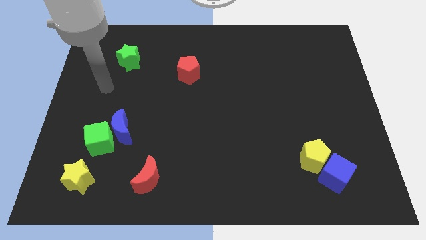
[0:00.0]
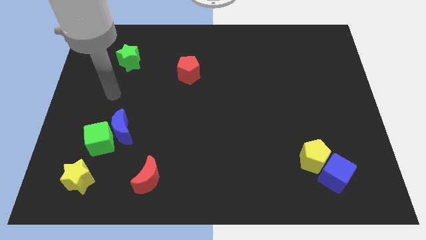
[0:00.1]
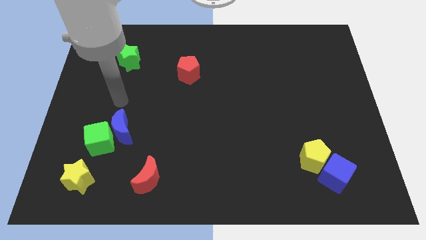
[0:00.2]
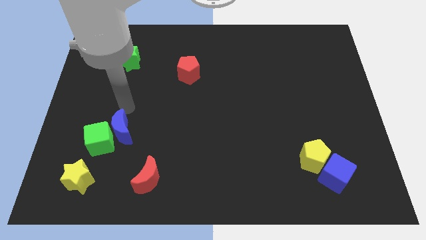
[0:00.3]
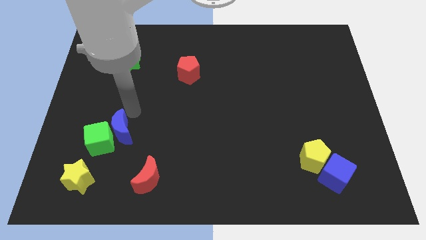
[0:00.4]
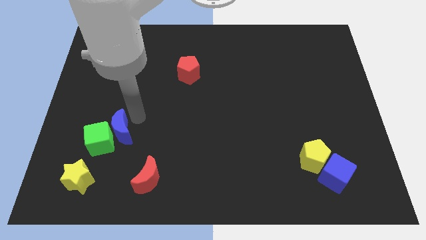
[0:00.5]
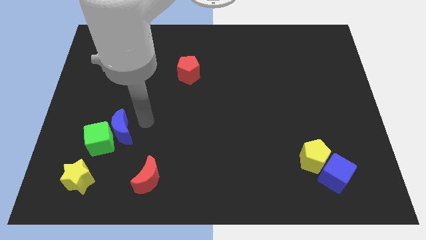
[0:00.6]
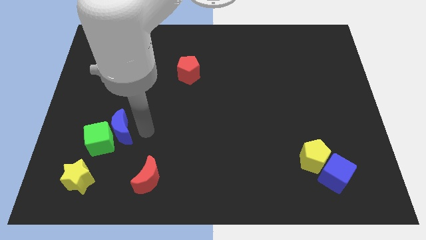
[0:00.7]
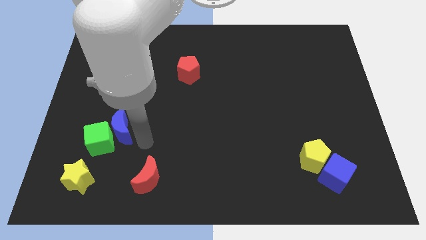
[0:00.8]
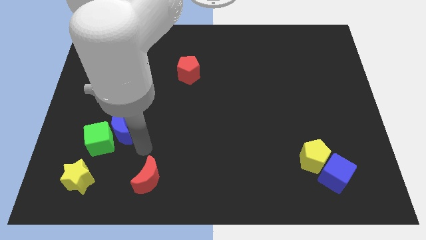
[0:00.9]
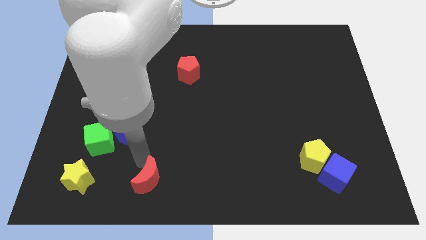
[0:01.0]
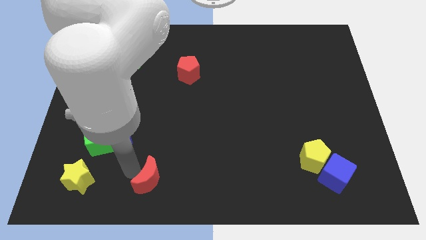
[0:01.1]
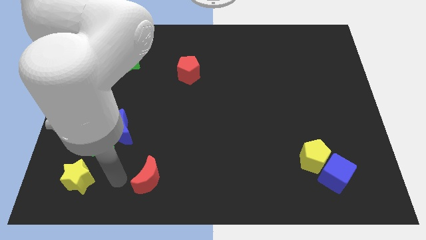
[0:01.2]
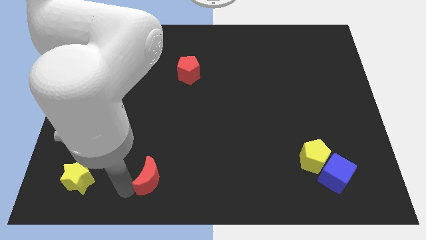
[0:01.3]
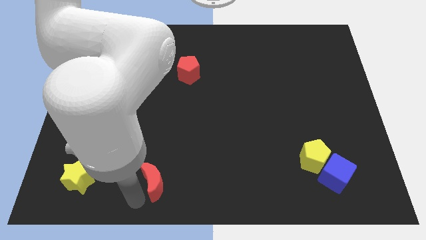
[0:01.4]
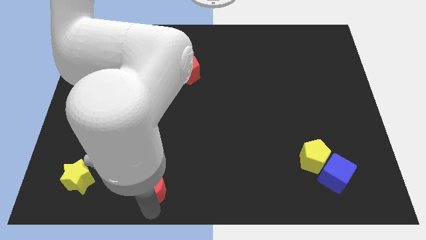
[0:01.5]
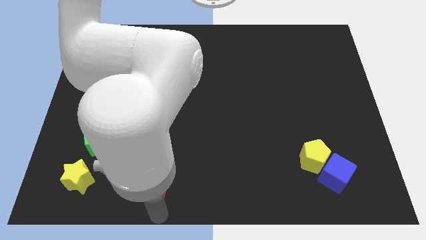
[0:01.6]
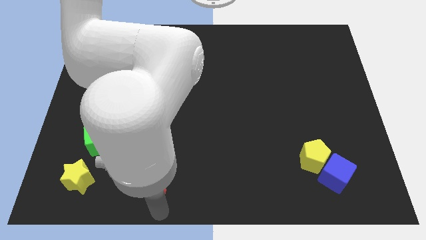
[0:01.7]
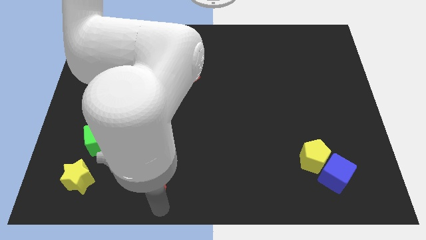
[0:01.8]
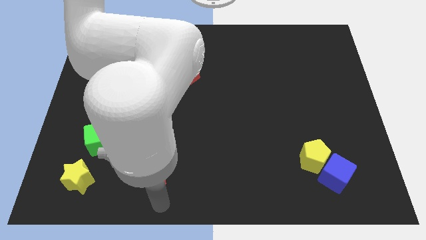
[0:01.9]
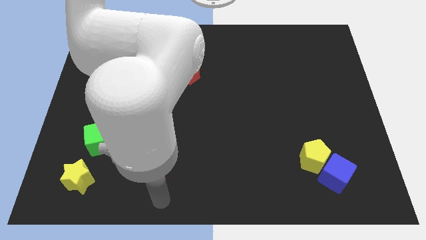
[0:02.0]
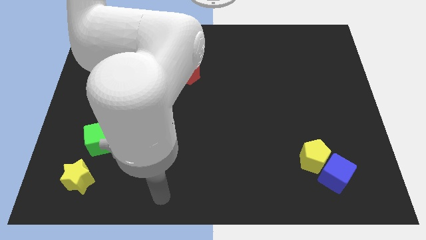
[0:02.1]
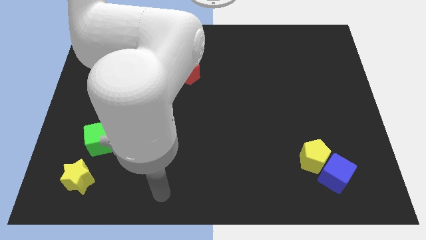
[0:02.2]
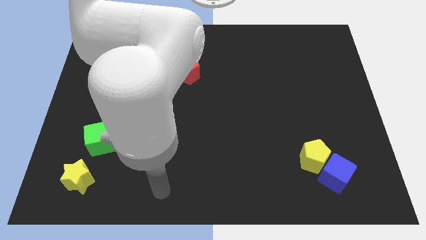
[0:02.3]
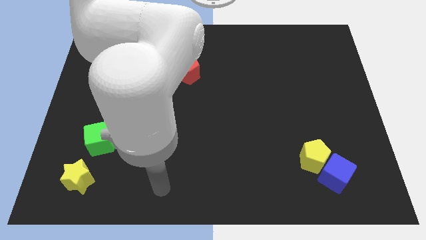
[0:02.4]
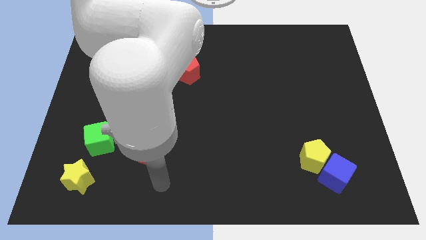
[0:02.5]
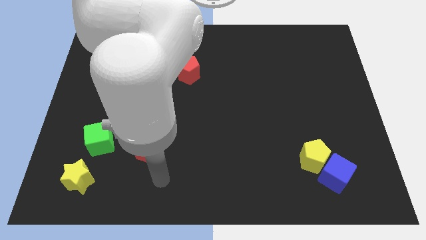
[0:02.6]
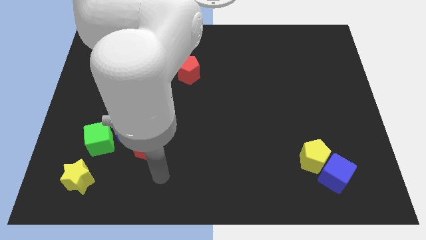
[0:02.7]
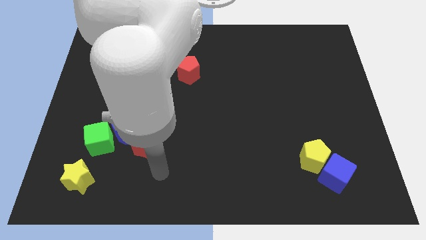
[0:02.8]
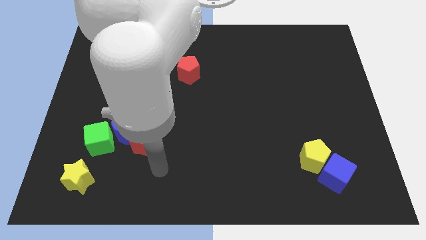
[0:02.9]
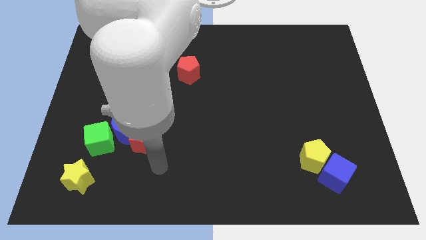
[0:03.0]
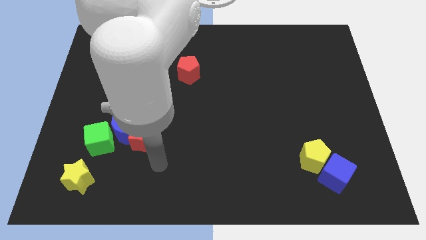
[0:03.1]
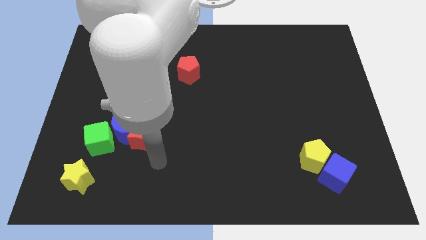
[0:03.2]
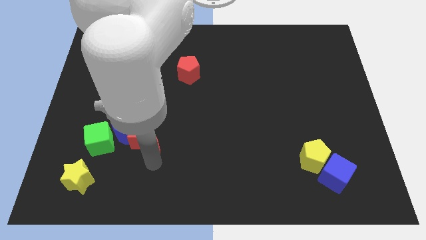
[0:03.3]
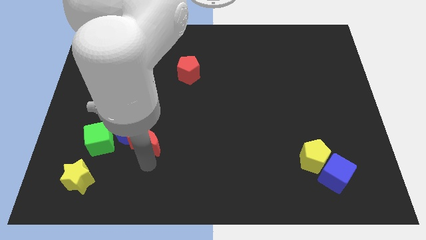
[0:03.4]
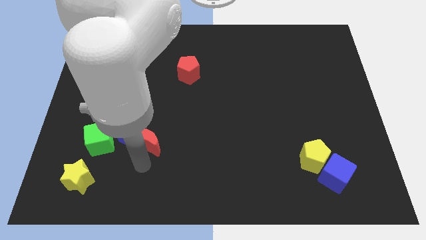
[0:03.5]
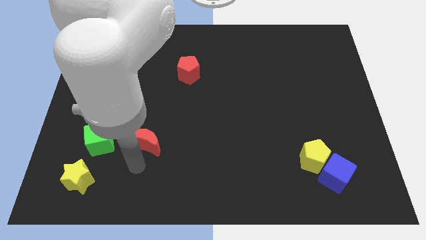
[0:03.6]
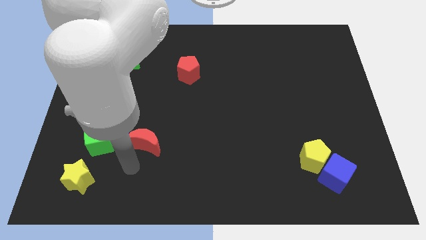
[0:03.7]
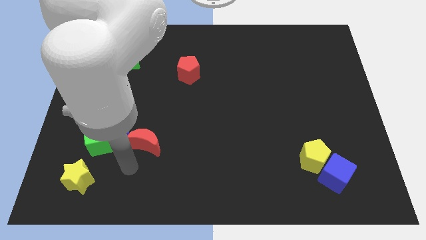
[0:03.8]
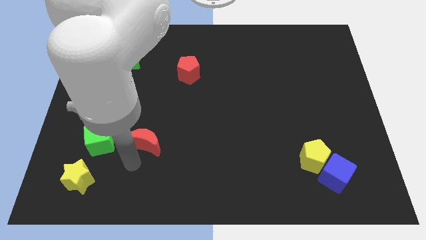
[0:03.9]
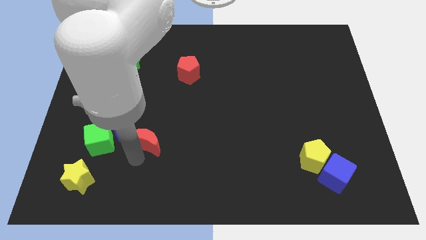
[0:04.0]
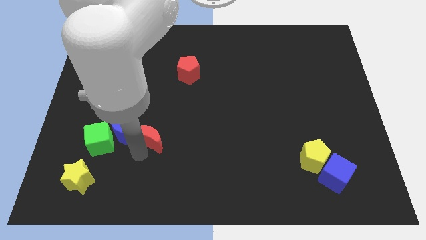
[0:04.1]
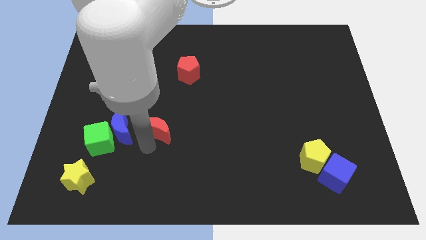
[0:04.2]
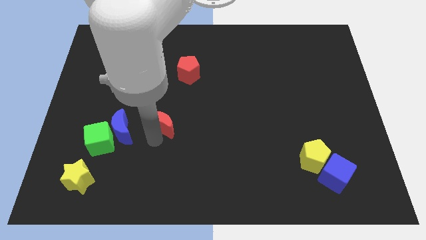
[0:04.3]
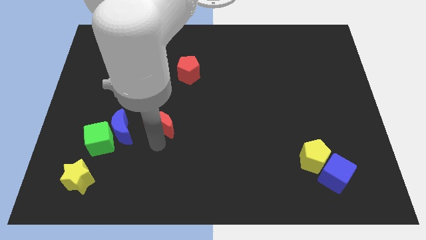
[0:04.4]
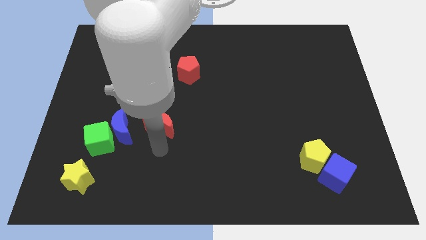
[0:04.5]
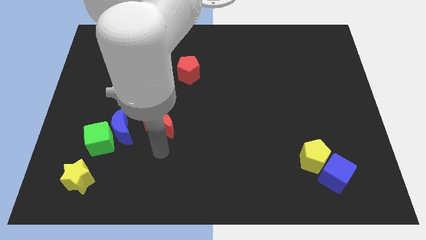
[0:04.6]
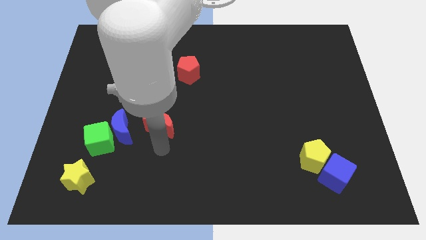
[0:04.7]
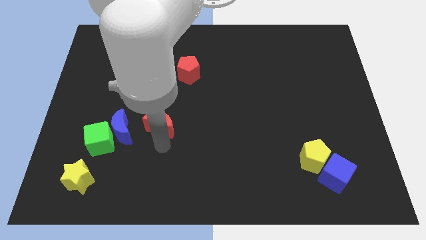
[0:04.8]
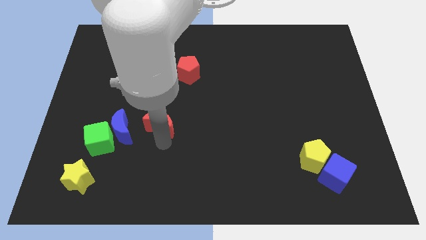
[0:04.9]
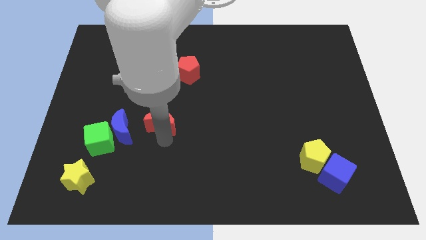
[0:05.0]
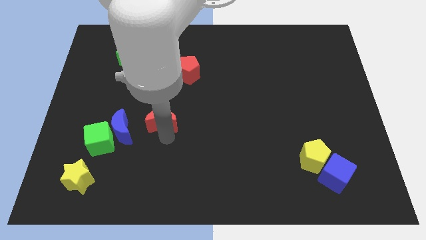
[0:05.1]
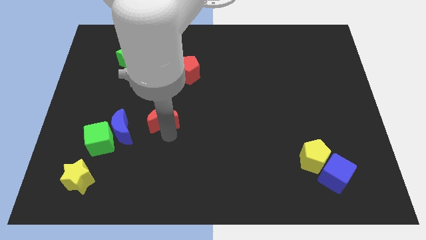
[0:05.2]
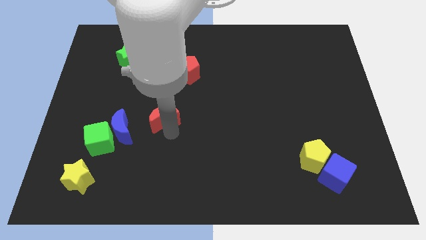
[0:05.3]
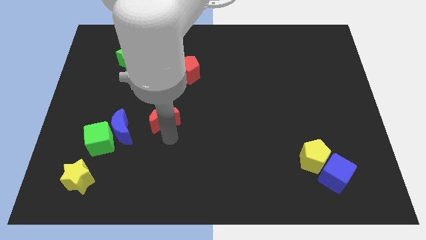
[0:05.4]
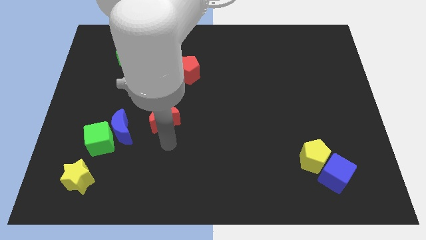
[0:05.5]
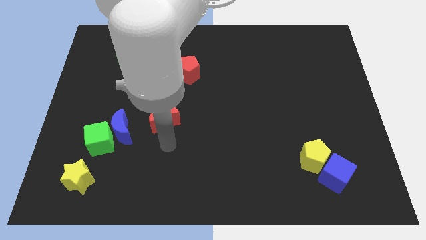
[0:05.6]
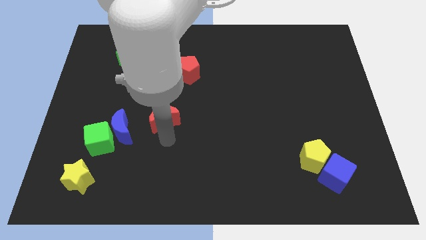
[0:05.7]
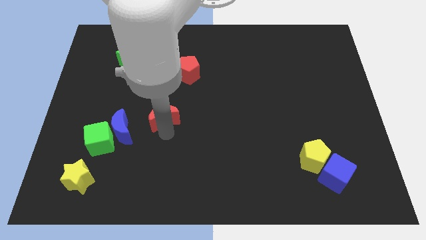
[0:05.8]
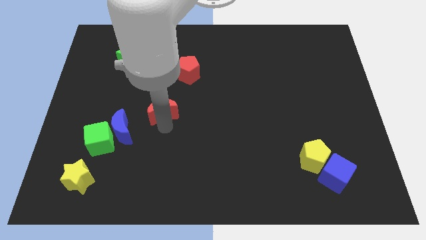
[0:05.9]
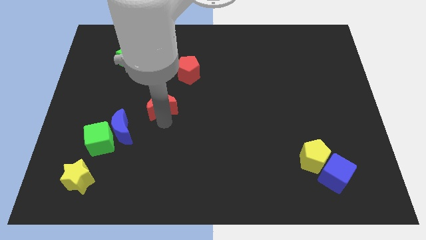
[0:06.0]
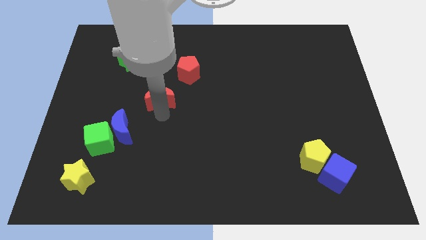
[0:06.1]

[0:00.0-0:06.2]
move the red moon up

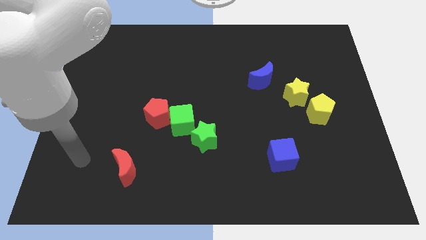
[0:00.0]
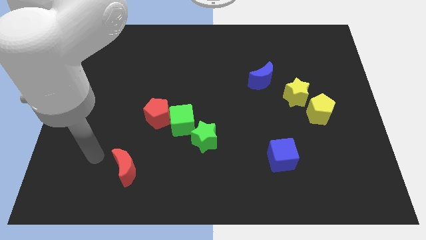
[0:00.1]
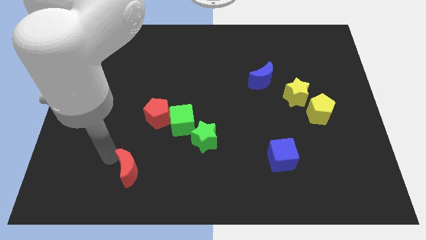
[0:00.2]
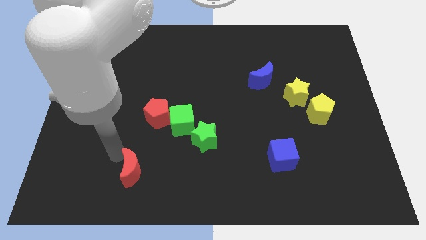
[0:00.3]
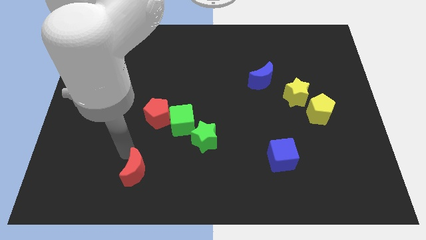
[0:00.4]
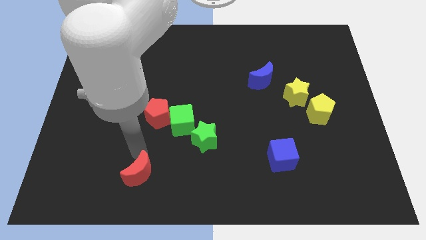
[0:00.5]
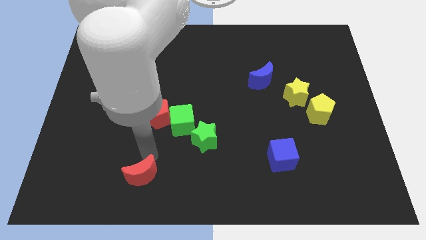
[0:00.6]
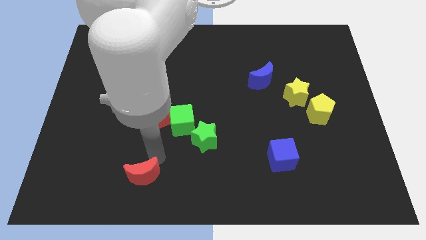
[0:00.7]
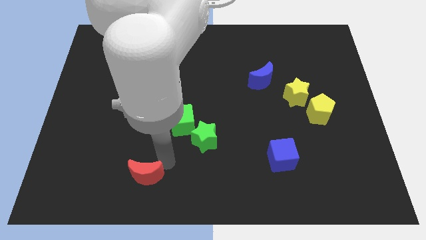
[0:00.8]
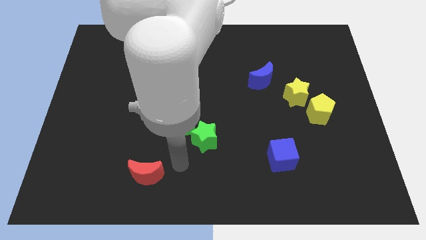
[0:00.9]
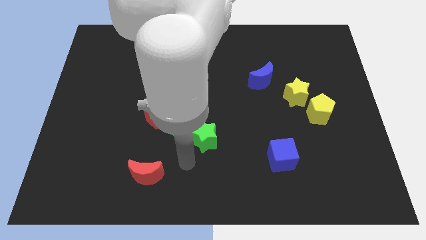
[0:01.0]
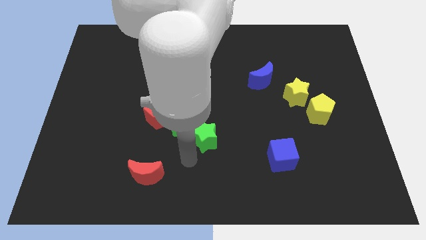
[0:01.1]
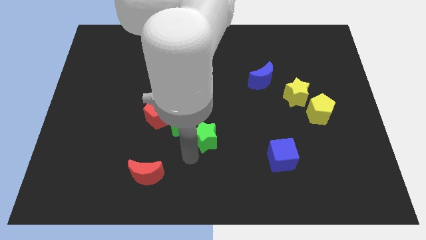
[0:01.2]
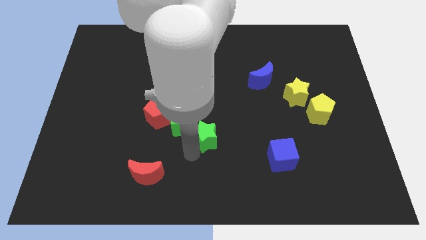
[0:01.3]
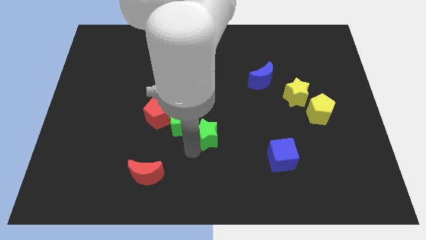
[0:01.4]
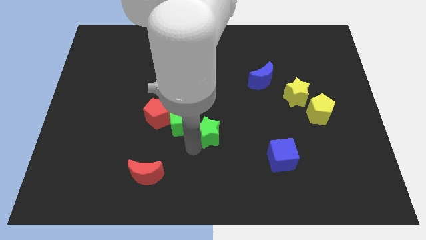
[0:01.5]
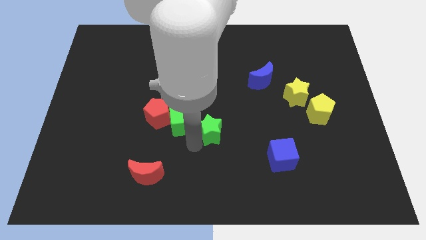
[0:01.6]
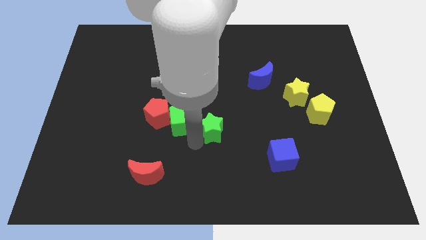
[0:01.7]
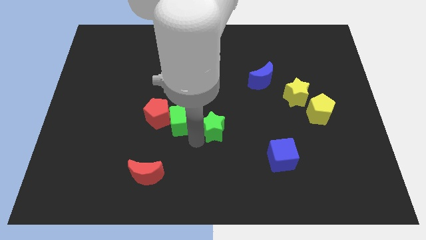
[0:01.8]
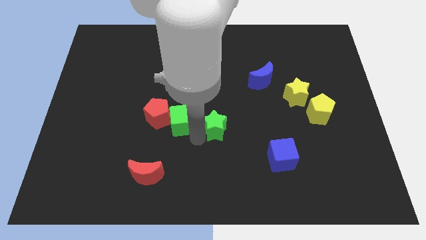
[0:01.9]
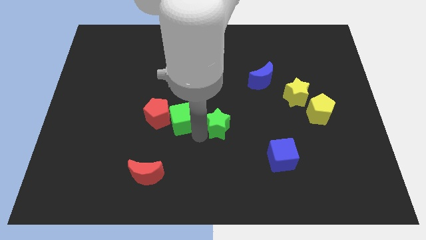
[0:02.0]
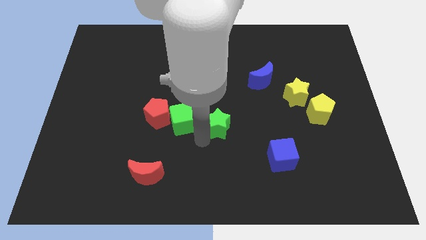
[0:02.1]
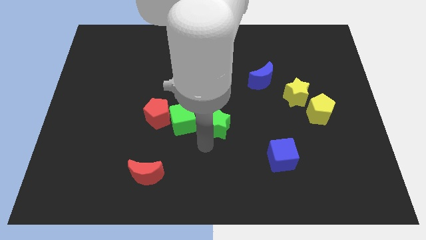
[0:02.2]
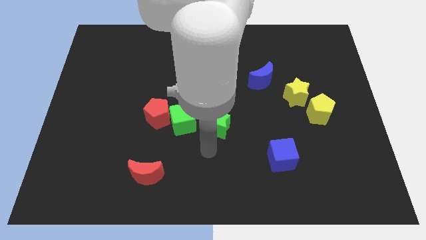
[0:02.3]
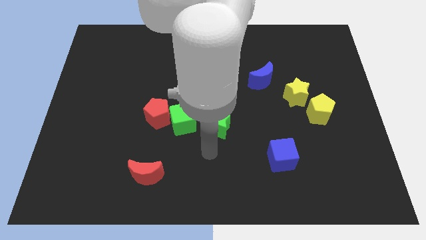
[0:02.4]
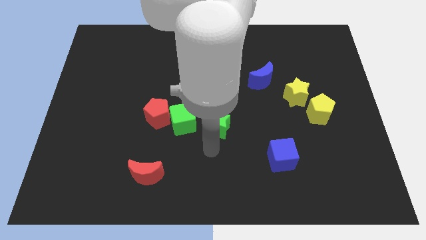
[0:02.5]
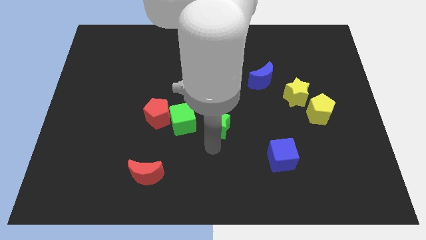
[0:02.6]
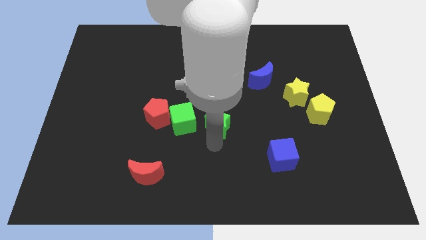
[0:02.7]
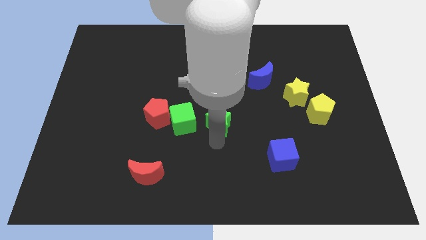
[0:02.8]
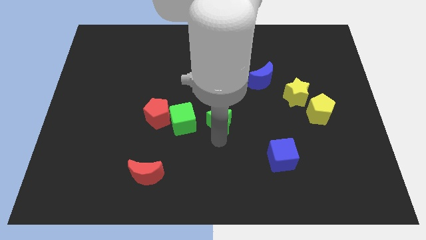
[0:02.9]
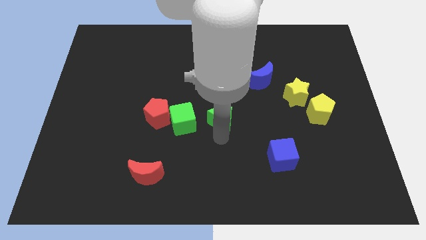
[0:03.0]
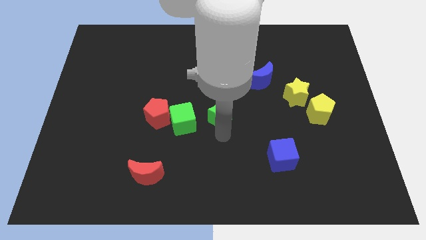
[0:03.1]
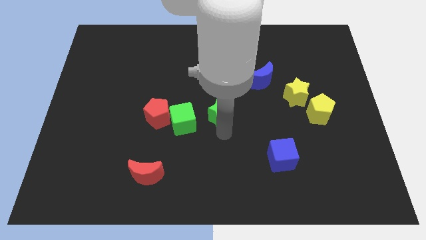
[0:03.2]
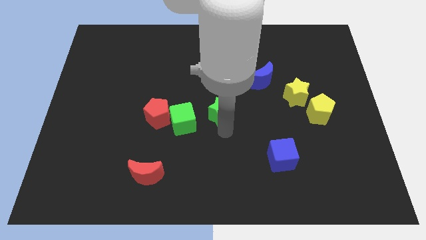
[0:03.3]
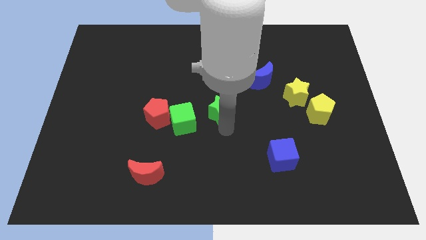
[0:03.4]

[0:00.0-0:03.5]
slide the green star slightly upwards
